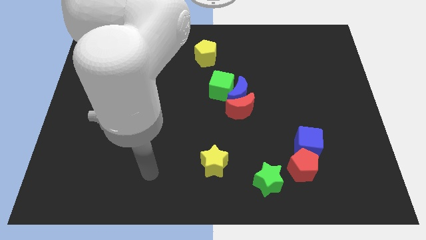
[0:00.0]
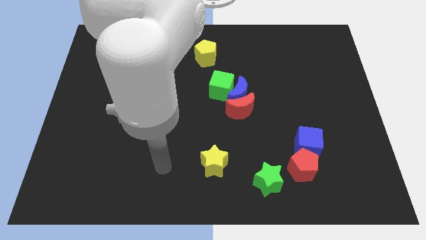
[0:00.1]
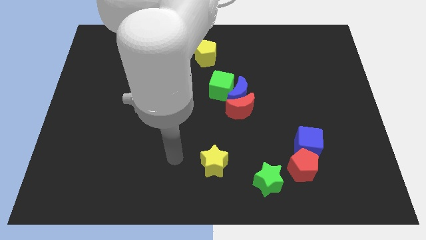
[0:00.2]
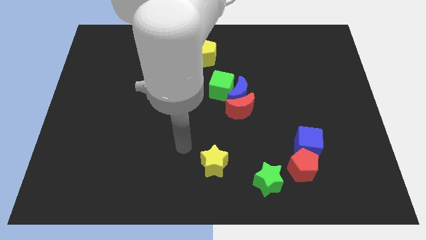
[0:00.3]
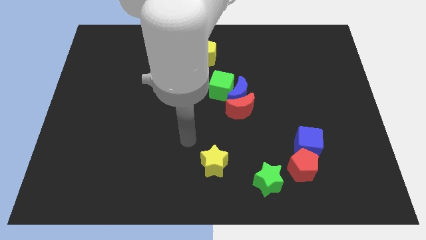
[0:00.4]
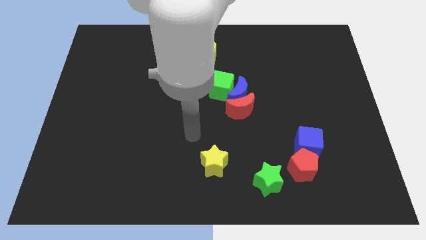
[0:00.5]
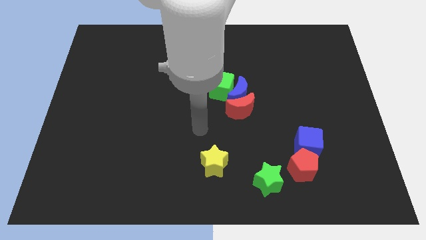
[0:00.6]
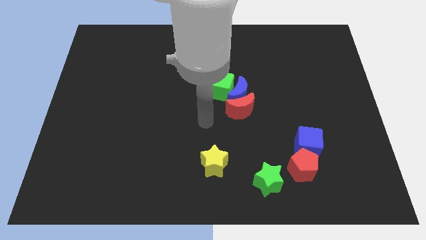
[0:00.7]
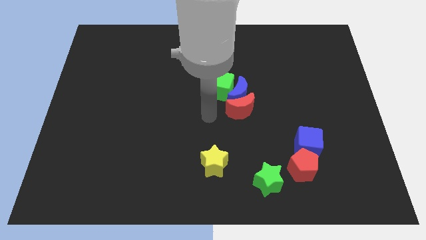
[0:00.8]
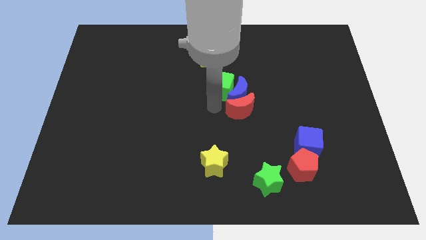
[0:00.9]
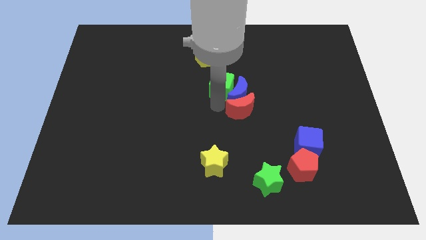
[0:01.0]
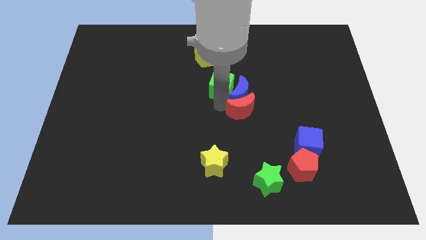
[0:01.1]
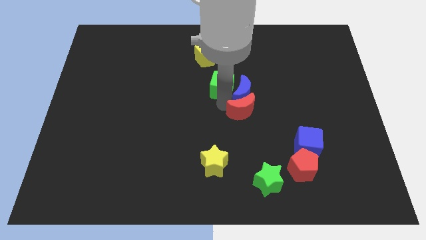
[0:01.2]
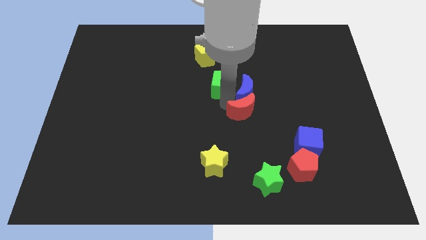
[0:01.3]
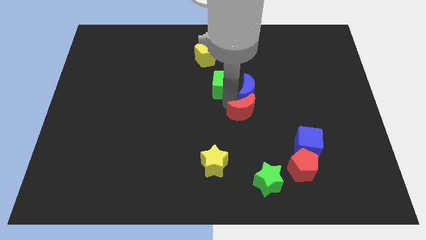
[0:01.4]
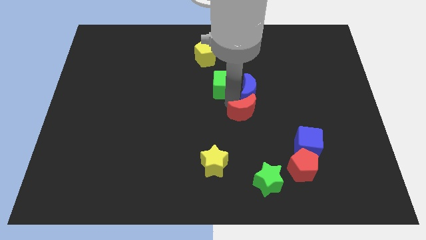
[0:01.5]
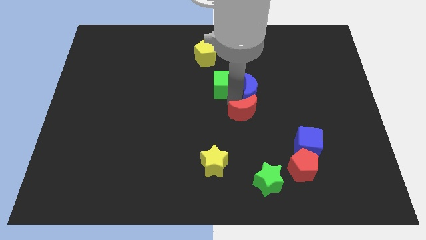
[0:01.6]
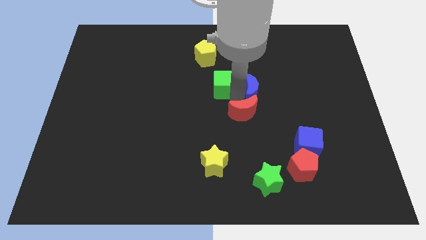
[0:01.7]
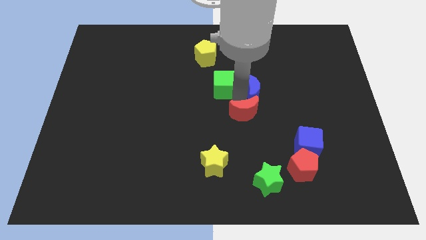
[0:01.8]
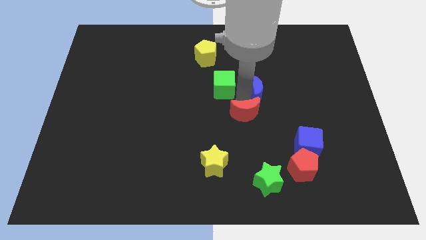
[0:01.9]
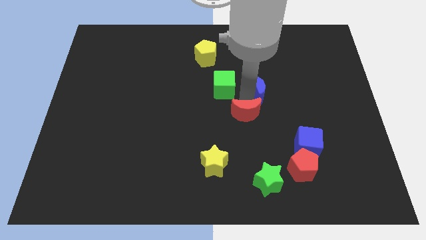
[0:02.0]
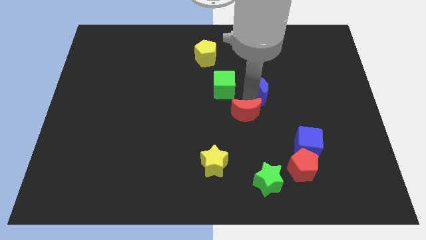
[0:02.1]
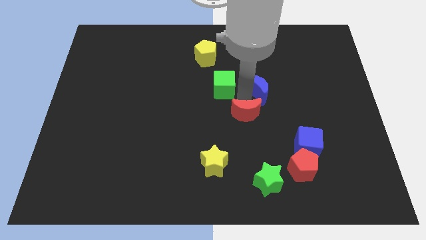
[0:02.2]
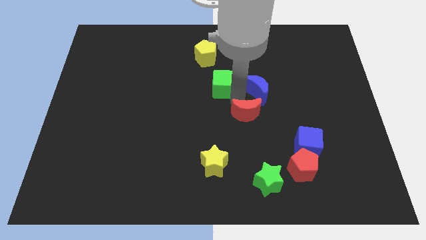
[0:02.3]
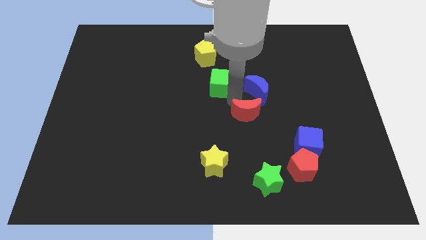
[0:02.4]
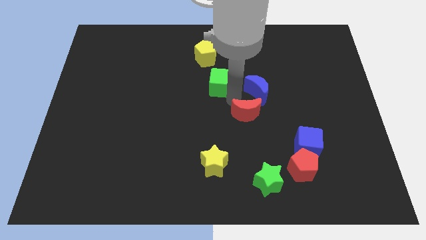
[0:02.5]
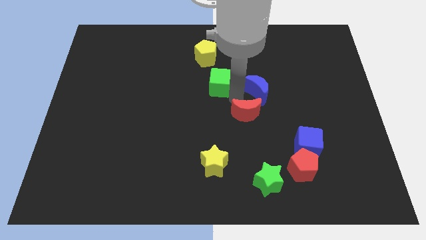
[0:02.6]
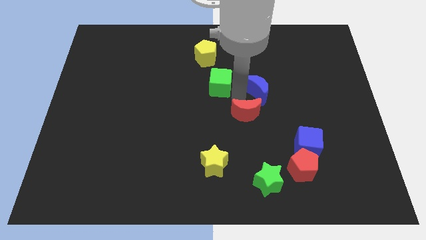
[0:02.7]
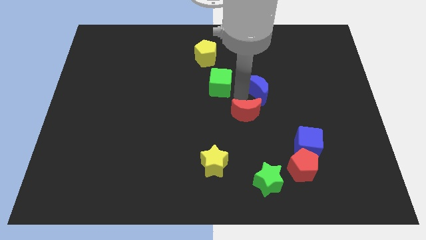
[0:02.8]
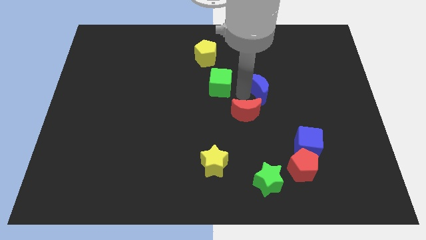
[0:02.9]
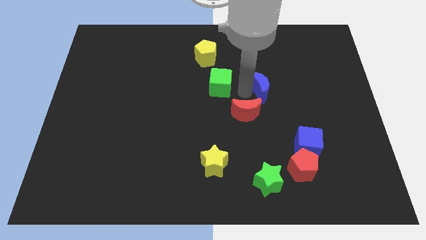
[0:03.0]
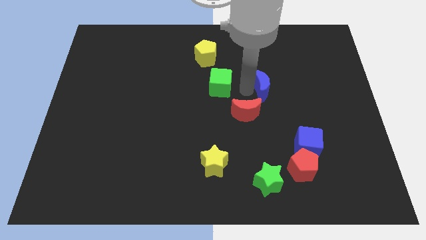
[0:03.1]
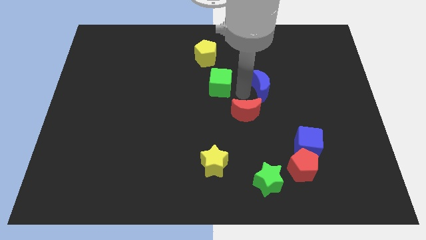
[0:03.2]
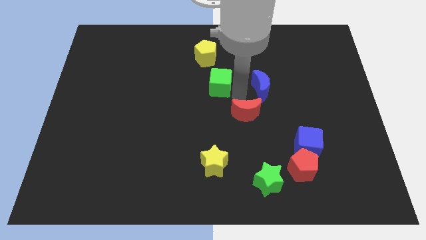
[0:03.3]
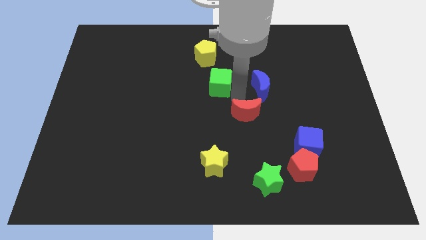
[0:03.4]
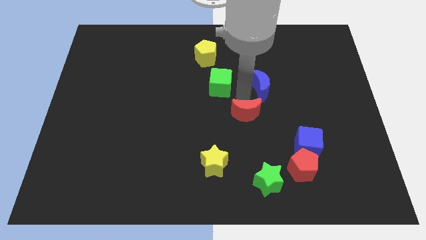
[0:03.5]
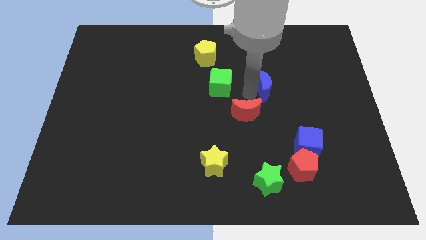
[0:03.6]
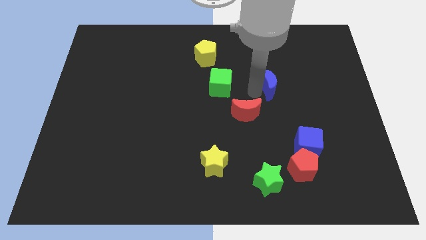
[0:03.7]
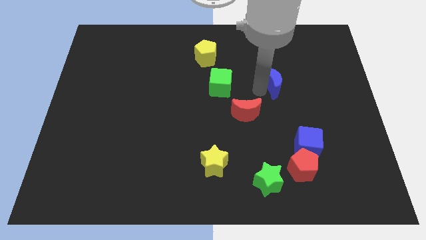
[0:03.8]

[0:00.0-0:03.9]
separate the blue moon from the red moon and green cube

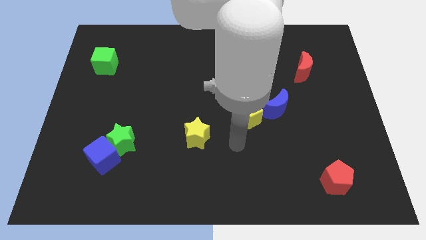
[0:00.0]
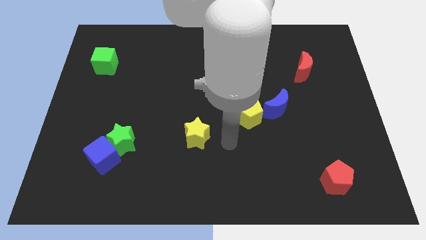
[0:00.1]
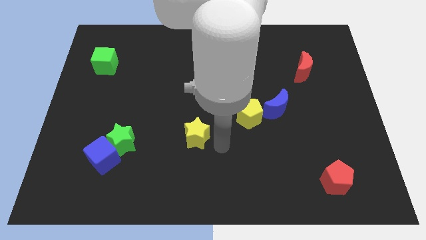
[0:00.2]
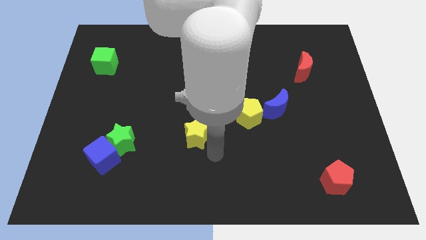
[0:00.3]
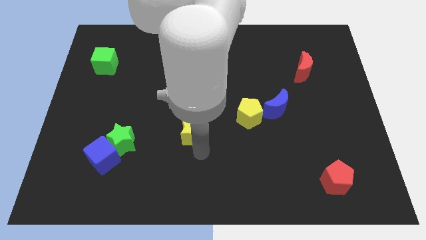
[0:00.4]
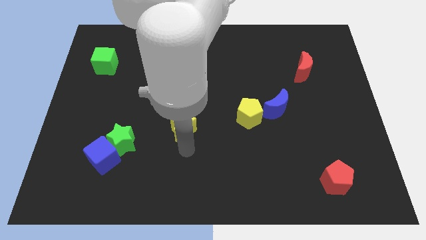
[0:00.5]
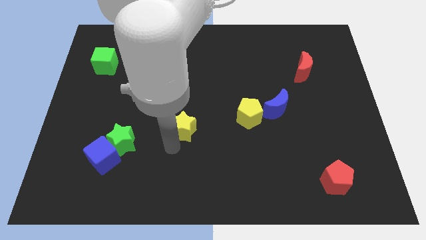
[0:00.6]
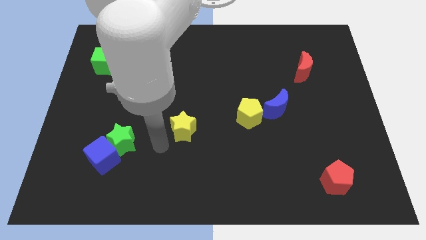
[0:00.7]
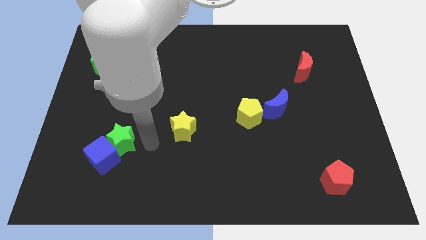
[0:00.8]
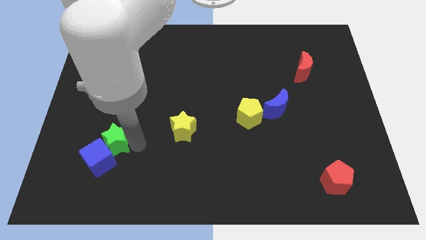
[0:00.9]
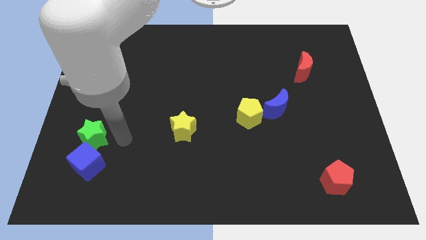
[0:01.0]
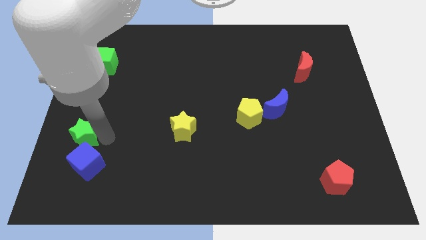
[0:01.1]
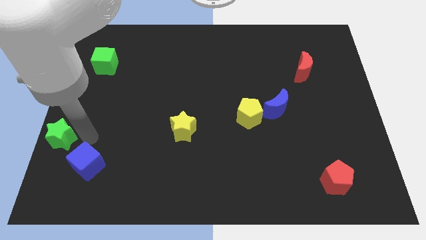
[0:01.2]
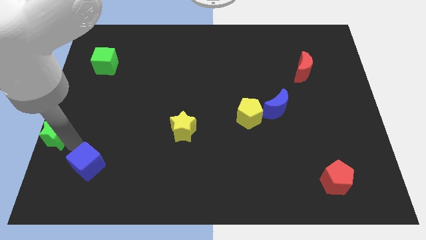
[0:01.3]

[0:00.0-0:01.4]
pull the blue cube apart from the green star

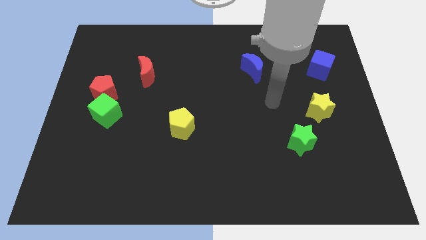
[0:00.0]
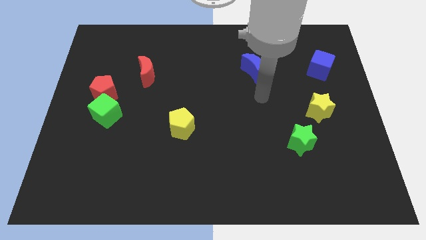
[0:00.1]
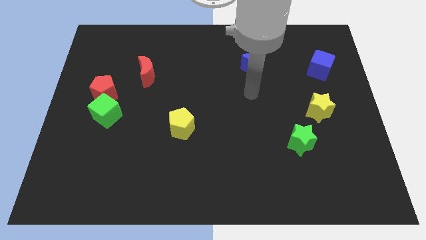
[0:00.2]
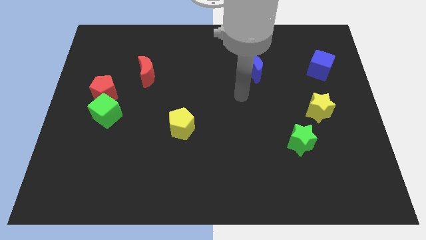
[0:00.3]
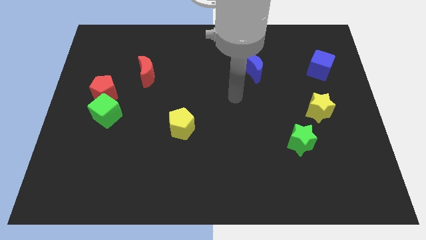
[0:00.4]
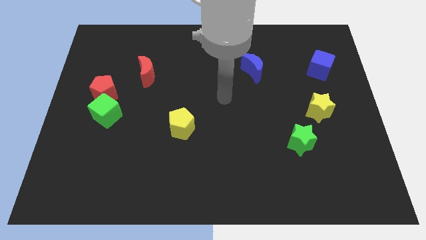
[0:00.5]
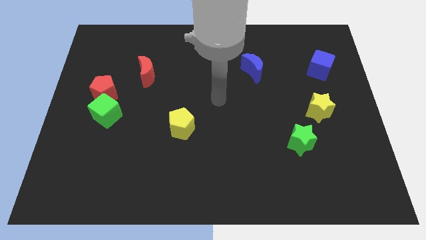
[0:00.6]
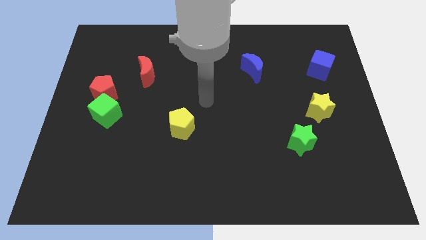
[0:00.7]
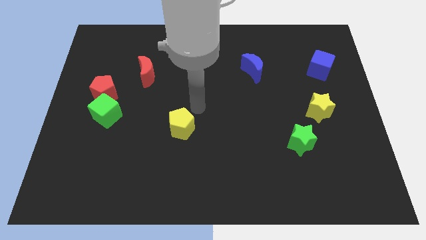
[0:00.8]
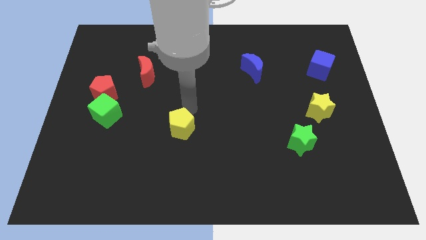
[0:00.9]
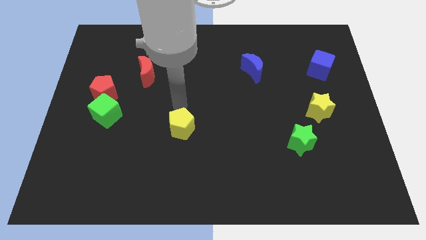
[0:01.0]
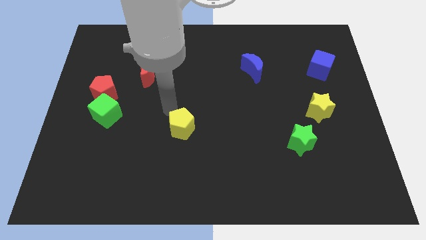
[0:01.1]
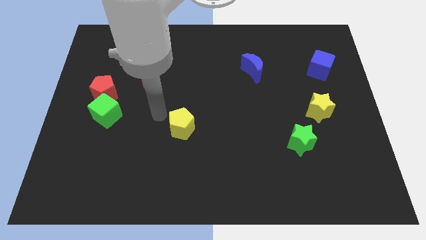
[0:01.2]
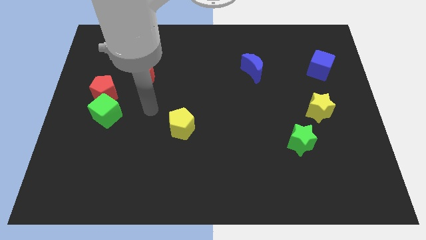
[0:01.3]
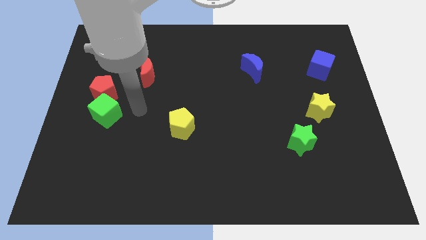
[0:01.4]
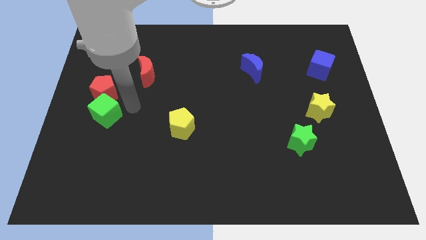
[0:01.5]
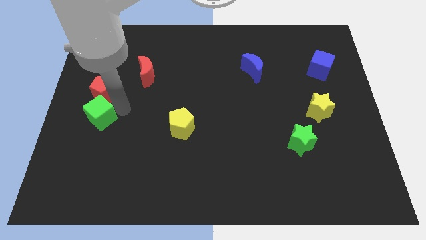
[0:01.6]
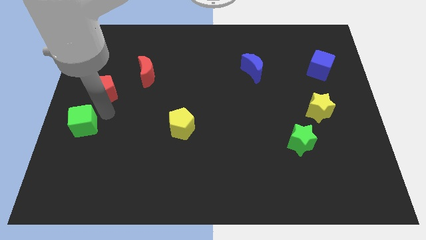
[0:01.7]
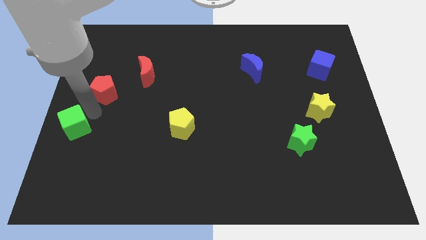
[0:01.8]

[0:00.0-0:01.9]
separate the red pentagon from the green cube

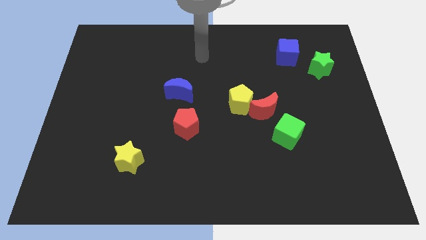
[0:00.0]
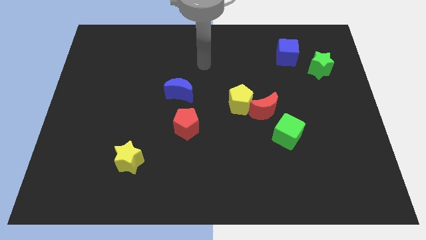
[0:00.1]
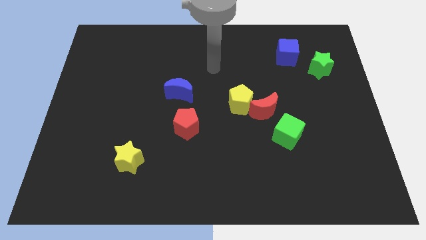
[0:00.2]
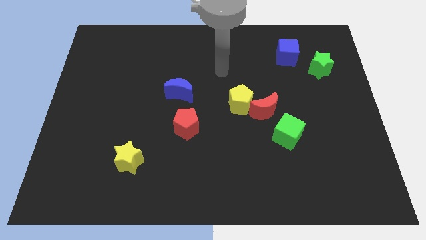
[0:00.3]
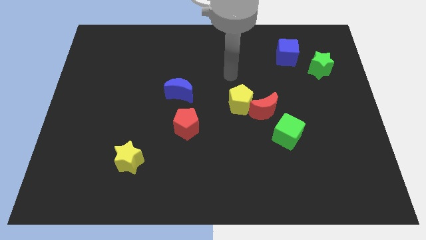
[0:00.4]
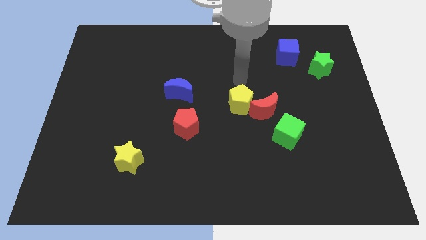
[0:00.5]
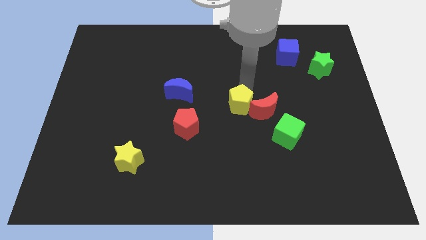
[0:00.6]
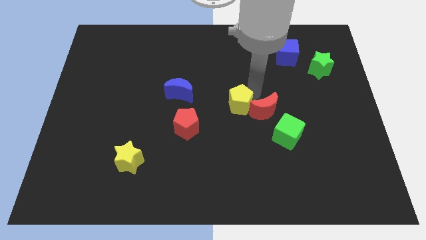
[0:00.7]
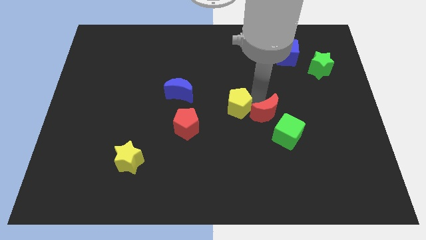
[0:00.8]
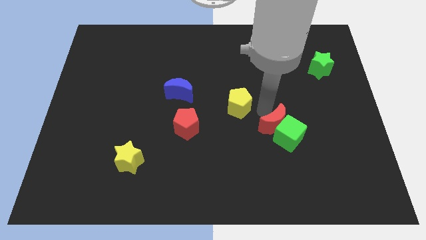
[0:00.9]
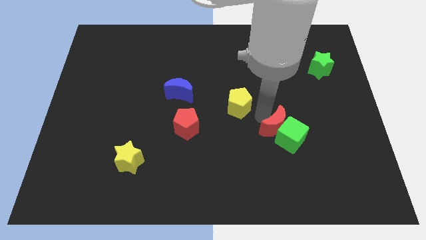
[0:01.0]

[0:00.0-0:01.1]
separate the yellow pentagon from the red moon

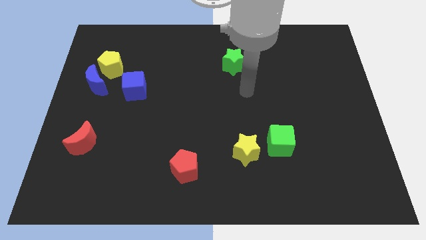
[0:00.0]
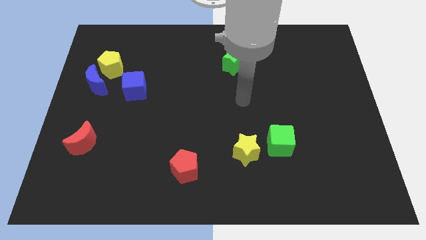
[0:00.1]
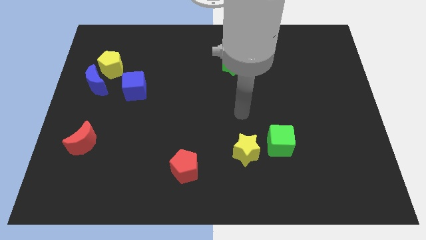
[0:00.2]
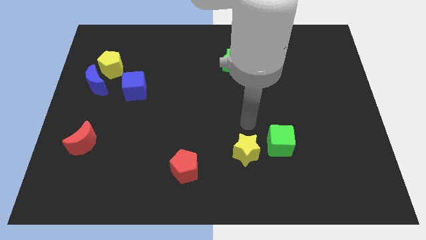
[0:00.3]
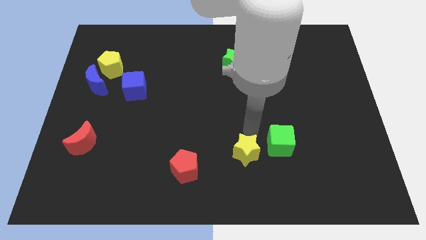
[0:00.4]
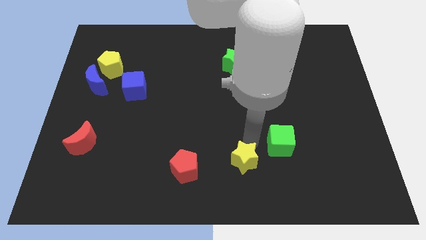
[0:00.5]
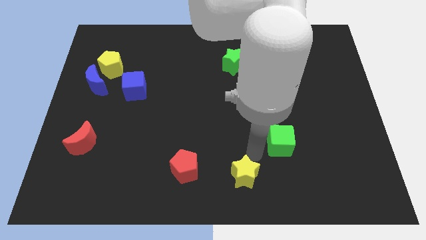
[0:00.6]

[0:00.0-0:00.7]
separate the green cube from the yellow star

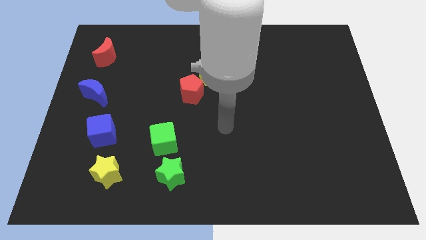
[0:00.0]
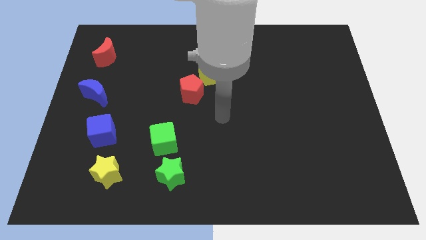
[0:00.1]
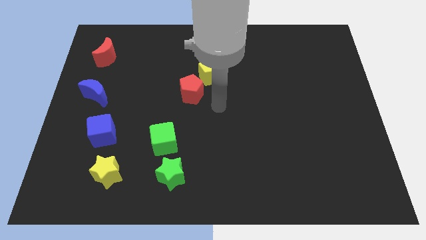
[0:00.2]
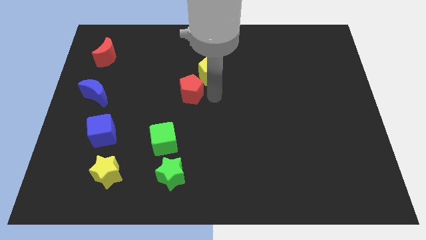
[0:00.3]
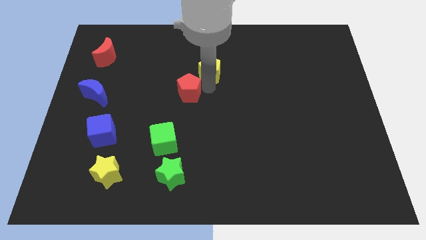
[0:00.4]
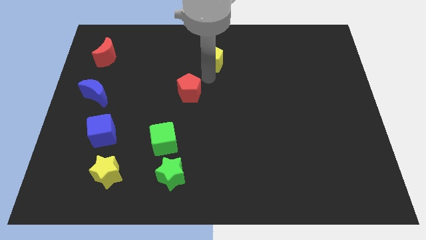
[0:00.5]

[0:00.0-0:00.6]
separate the red pentagon from the yellow pentagon
